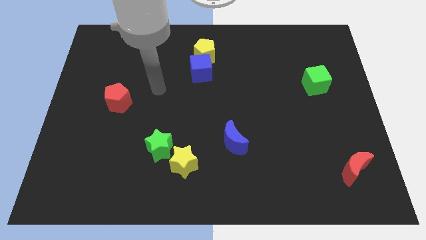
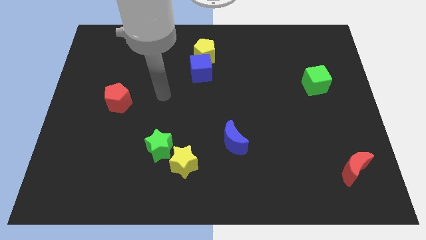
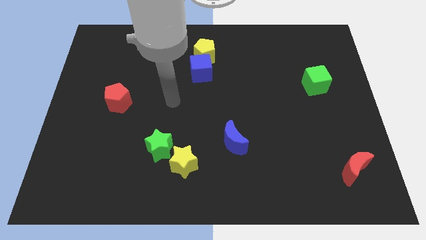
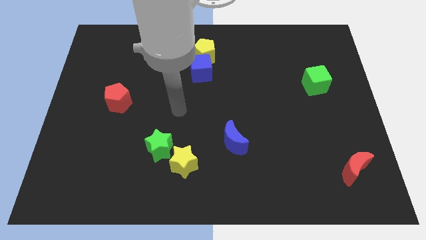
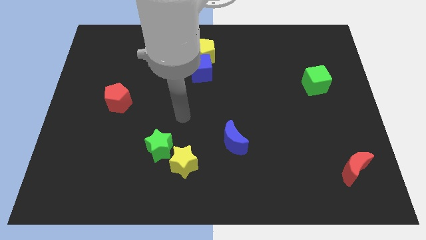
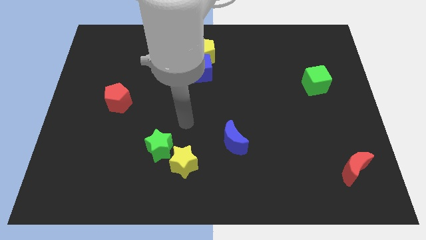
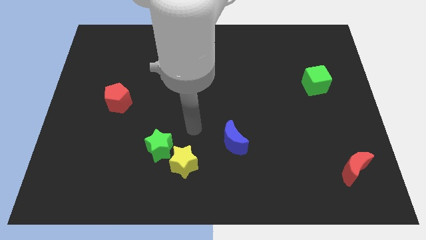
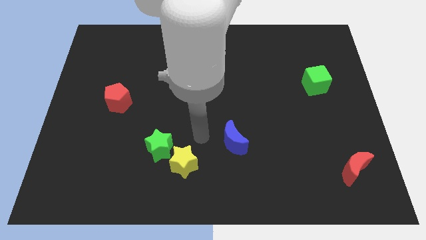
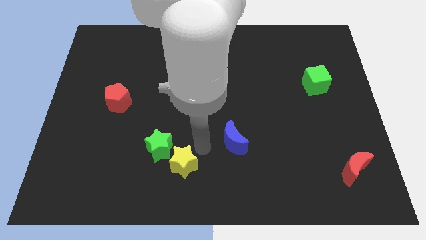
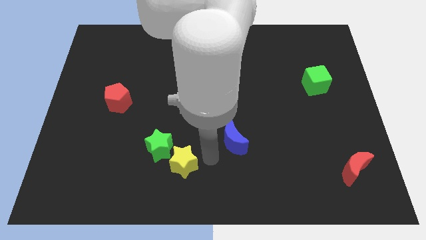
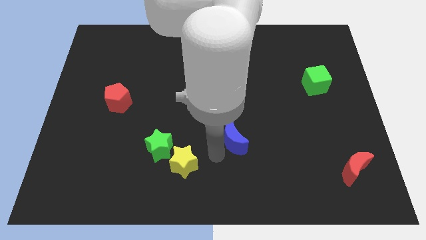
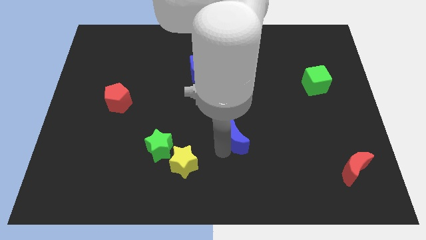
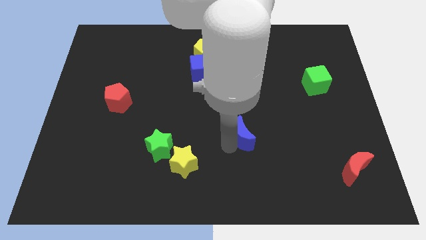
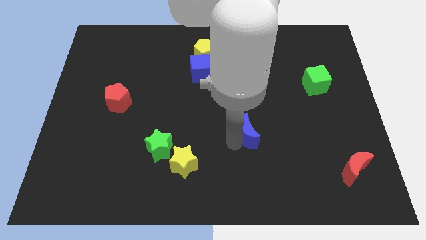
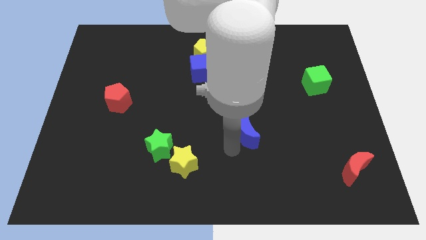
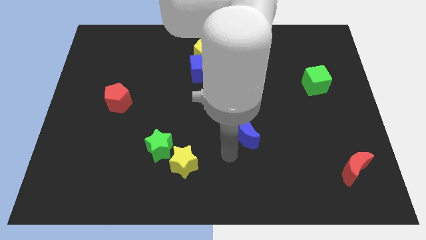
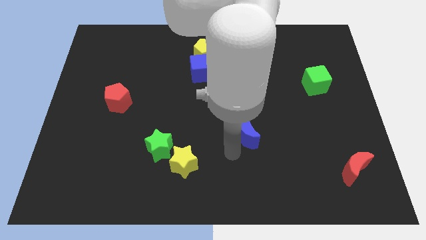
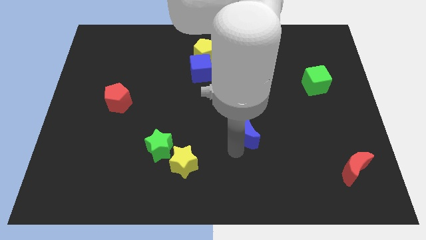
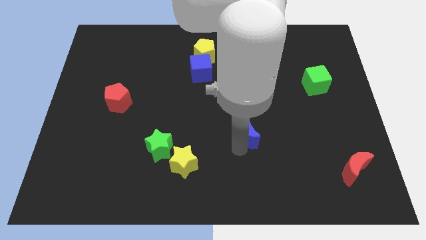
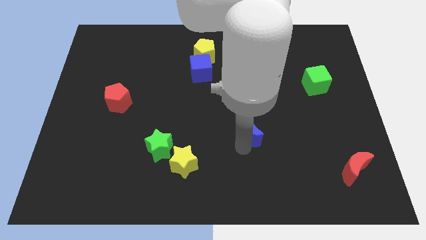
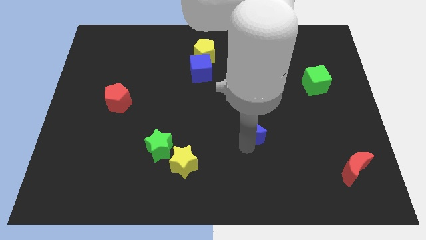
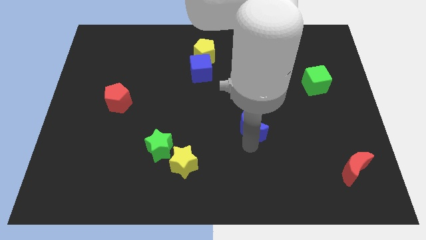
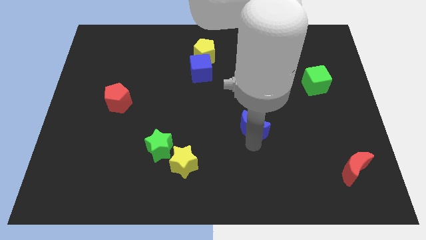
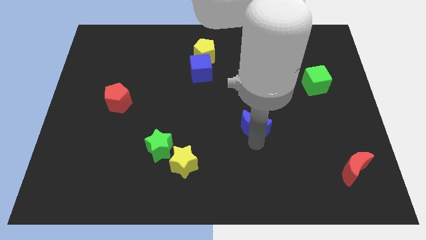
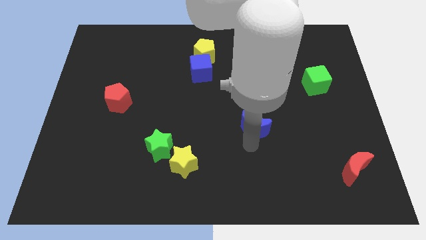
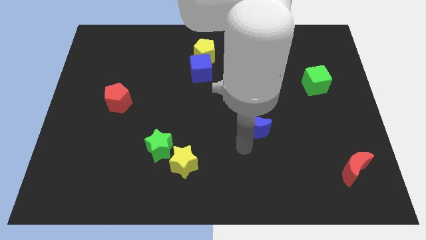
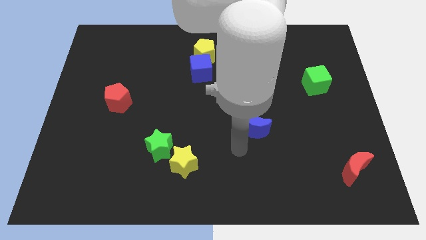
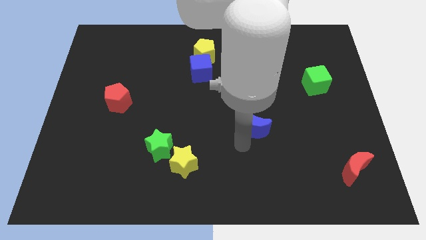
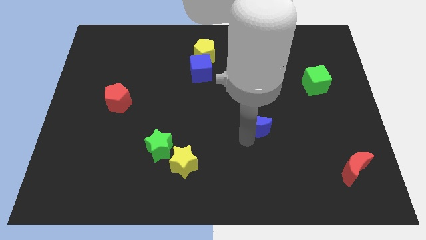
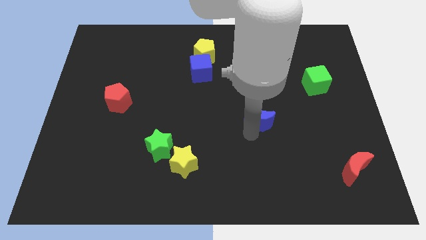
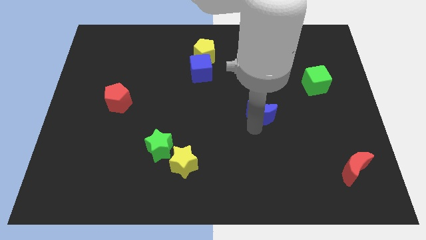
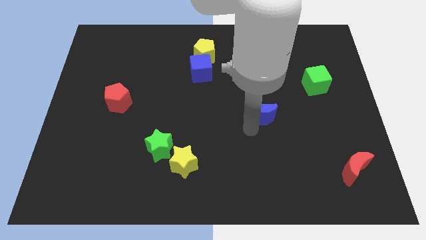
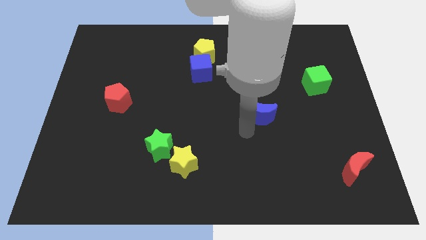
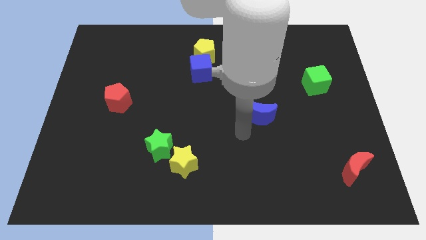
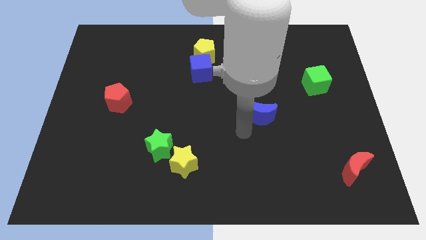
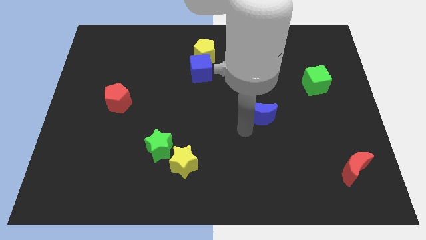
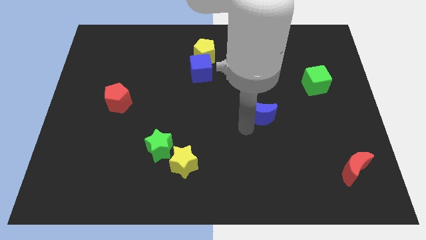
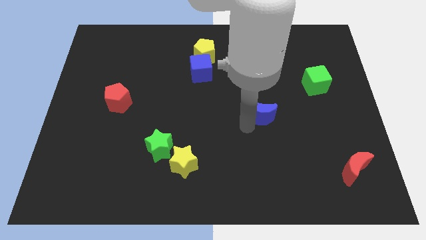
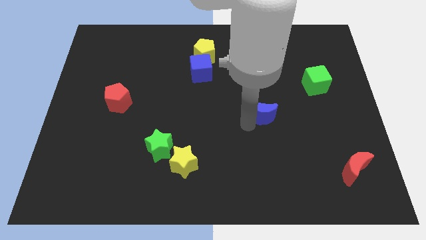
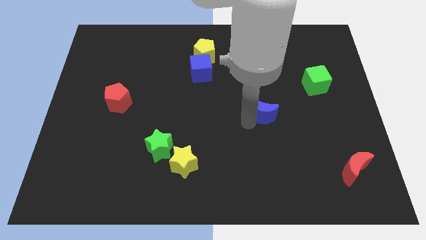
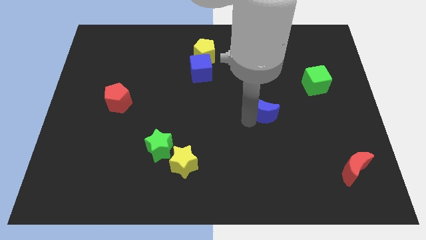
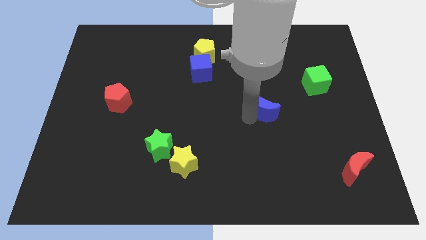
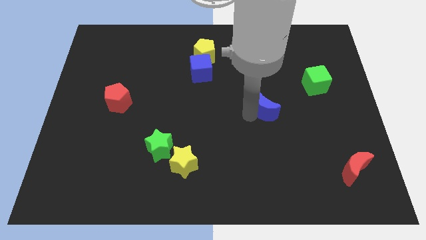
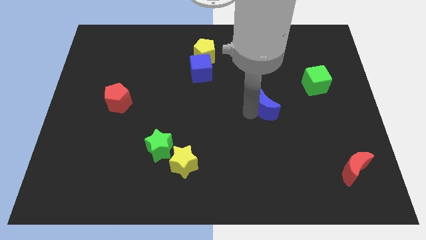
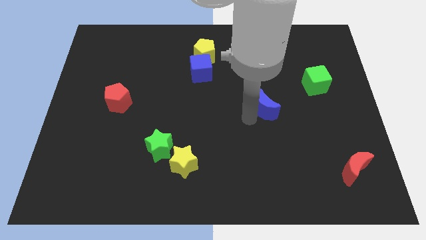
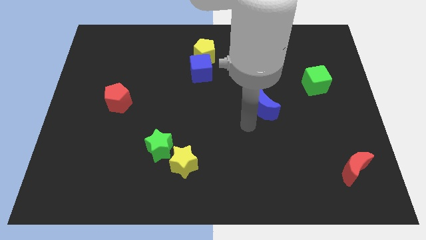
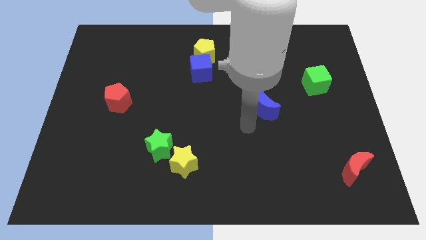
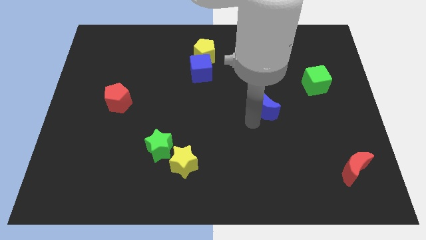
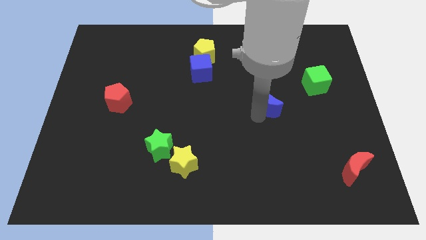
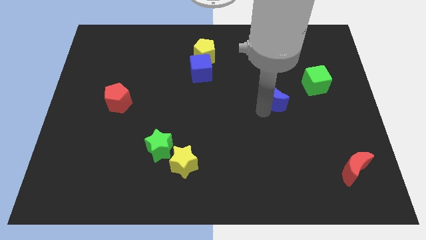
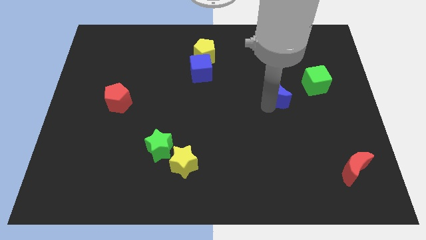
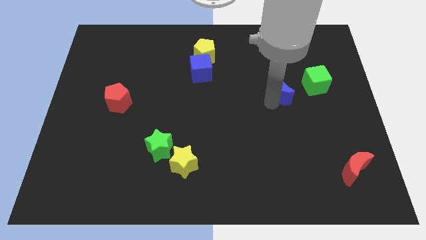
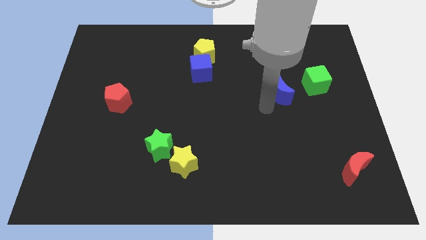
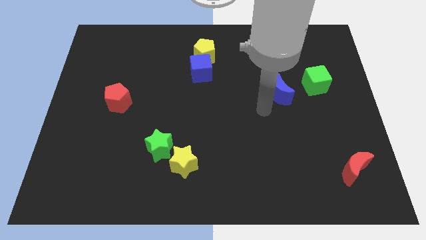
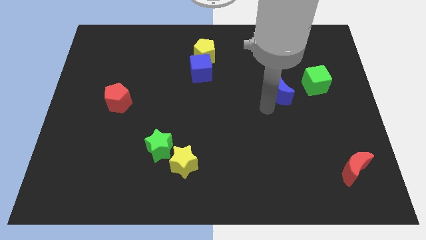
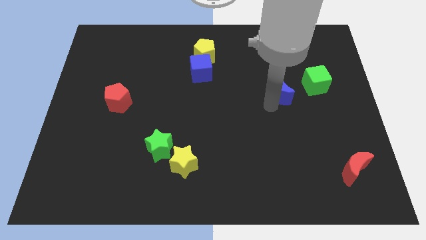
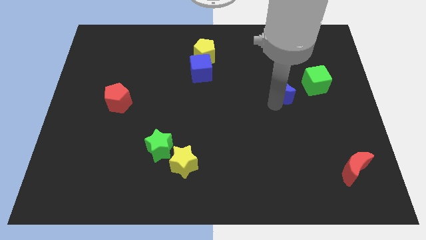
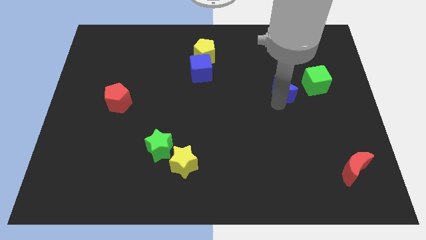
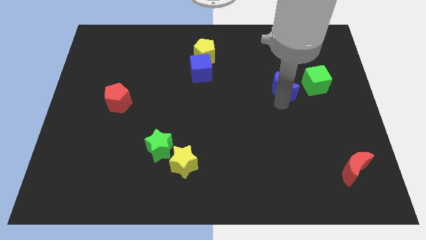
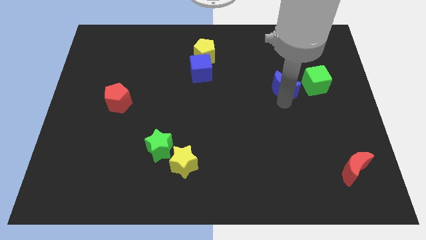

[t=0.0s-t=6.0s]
slide the blue moon up and to the right

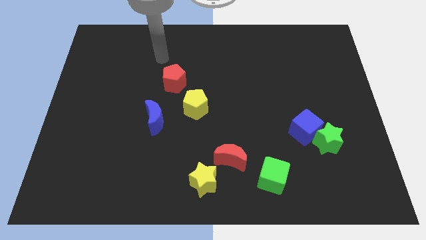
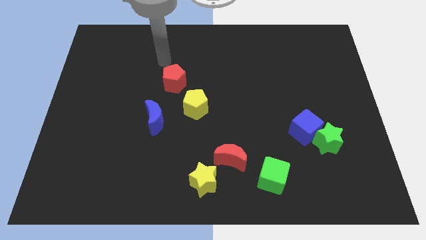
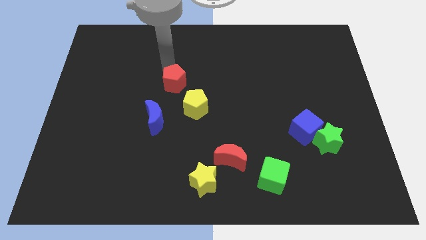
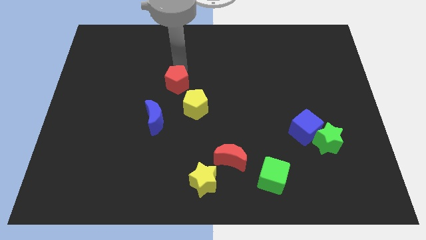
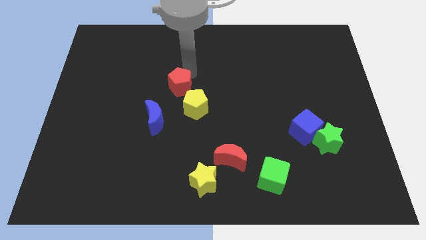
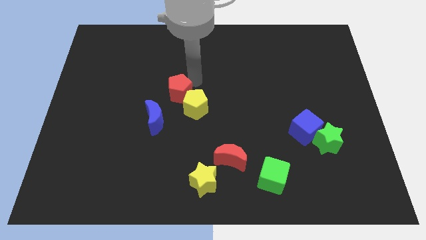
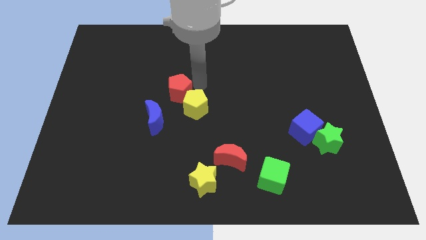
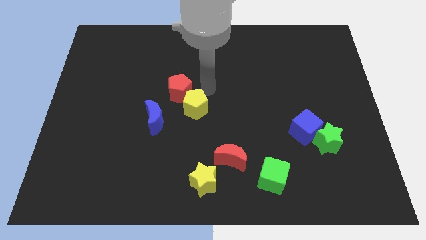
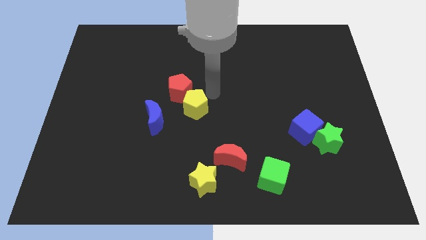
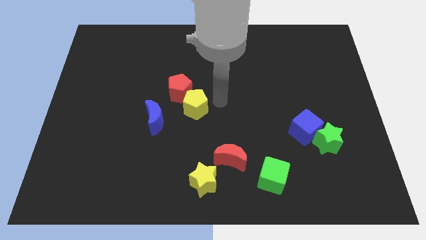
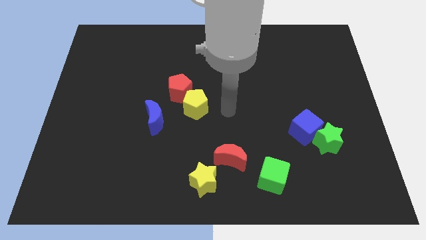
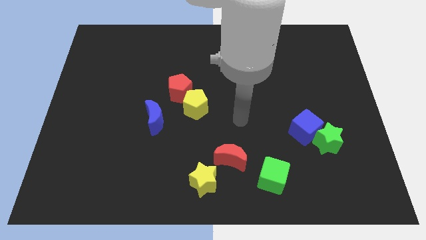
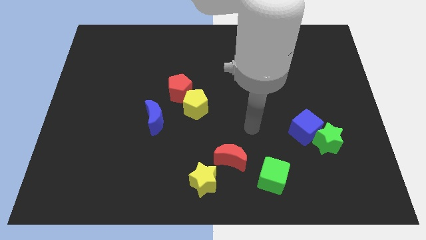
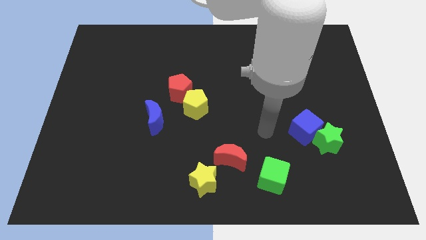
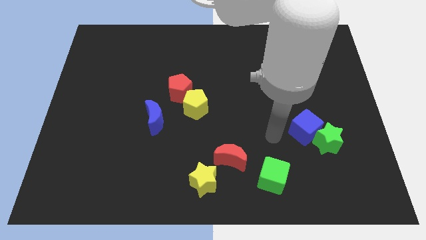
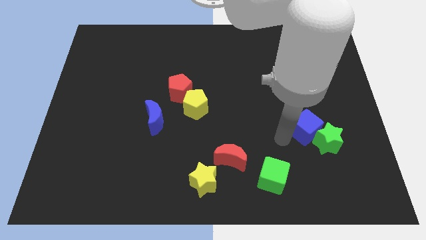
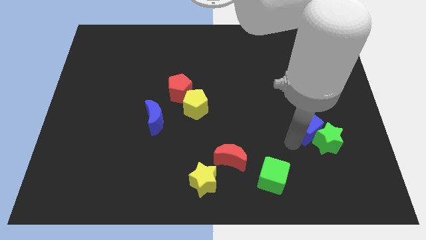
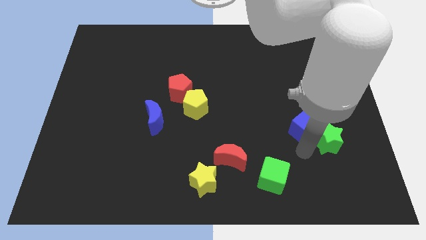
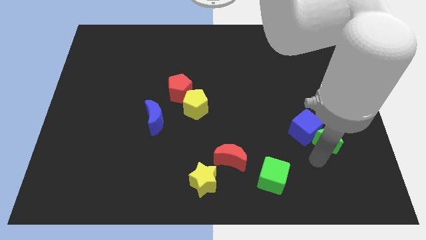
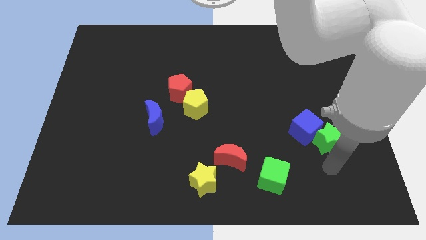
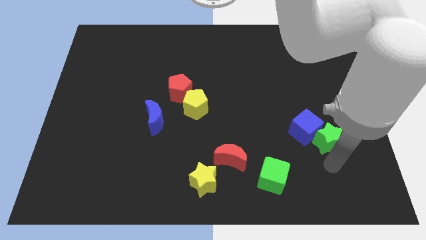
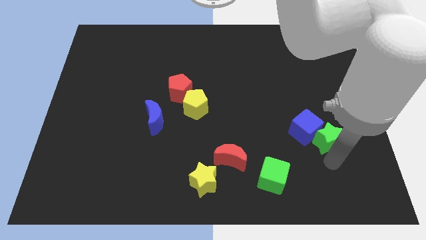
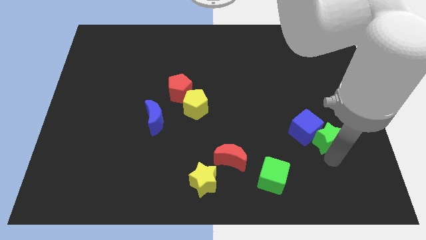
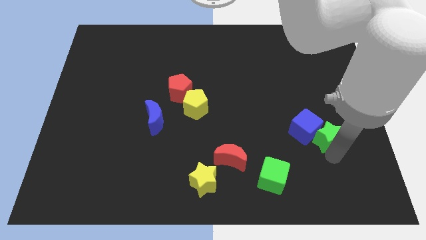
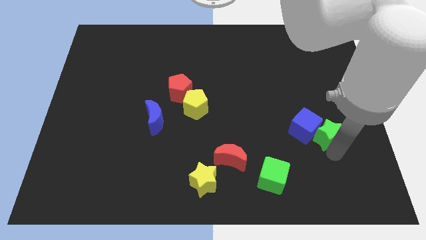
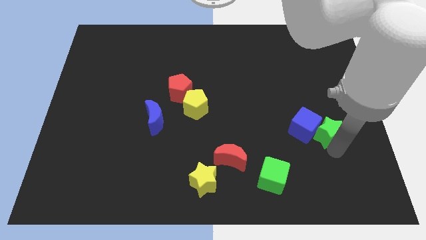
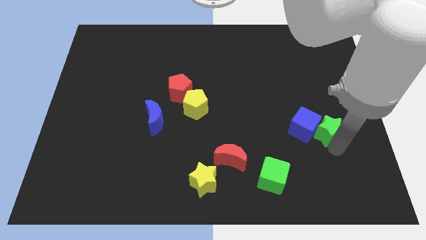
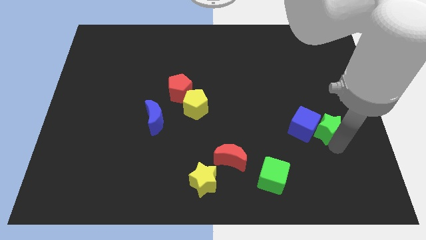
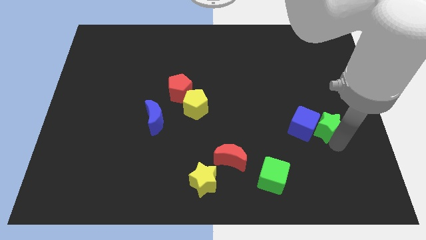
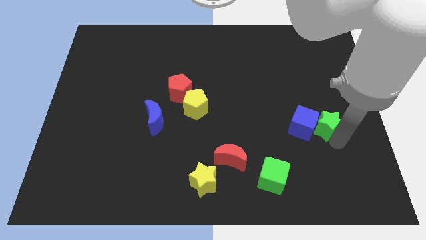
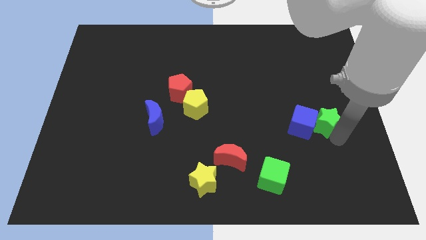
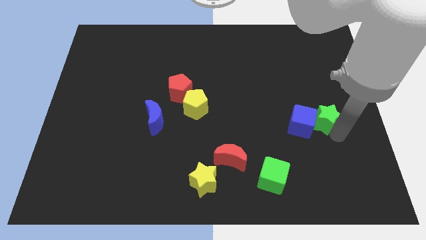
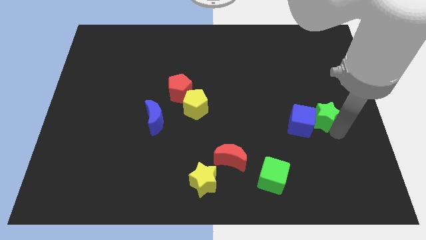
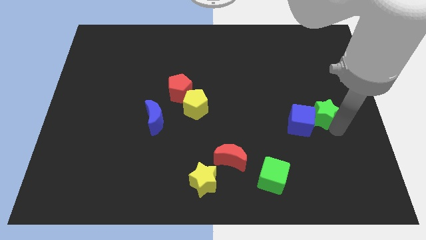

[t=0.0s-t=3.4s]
slightly slide the green star up
